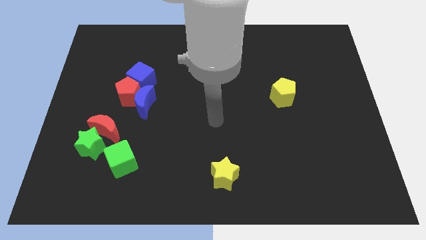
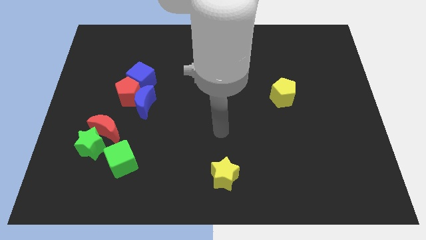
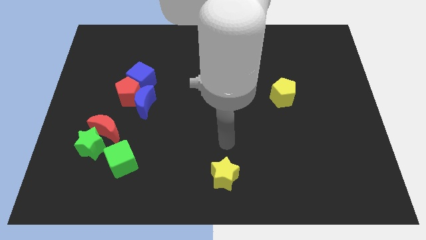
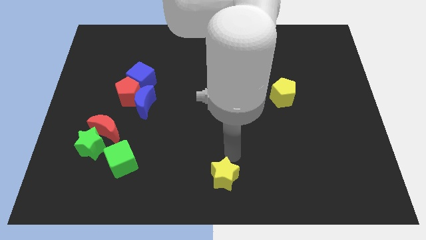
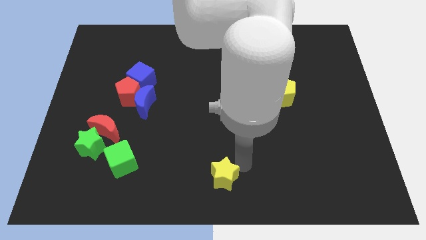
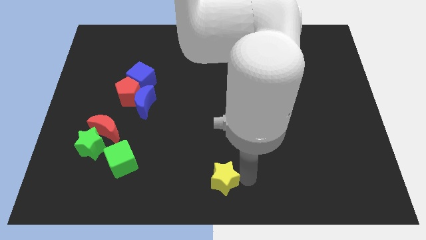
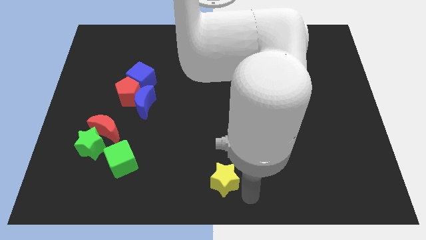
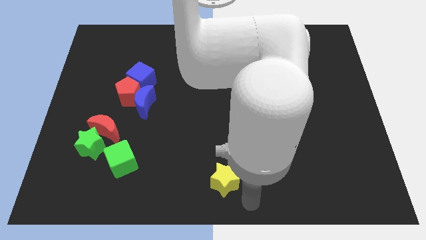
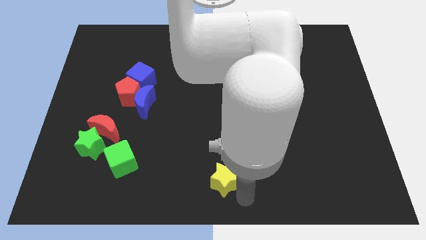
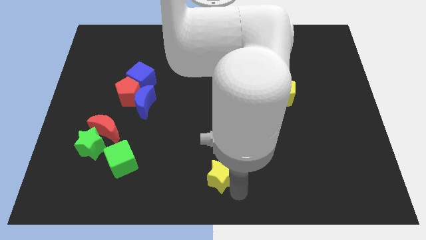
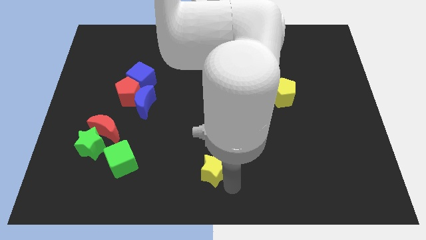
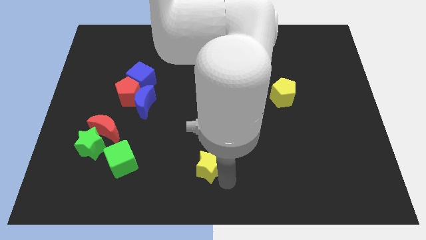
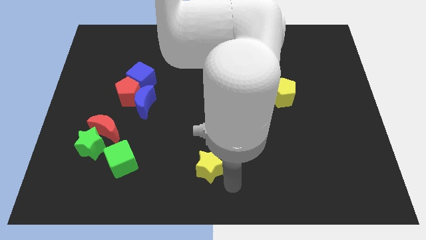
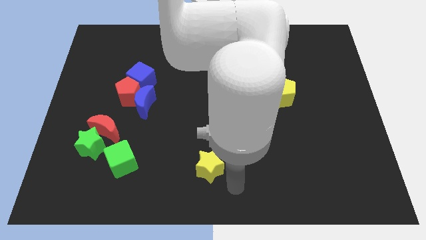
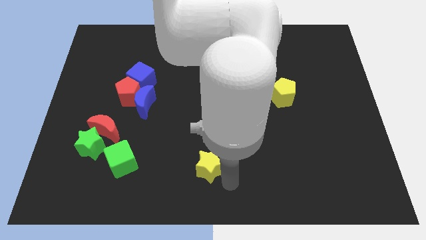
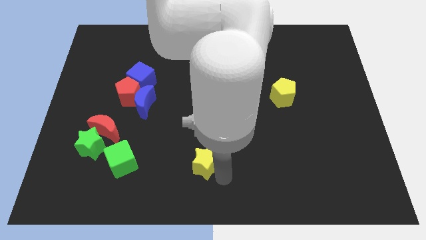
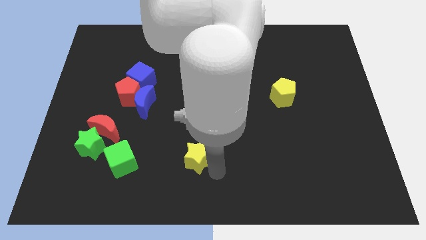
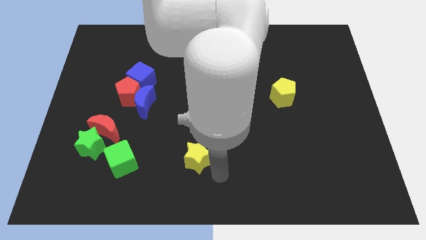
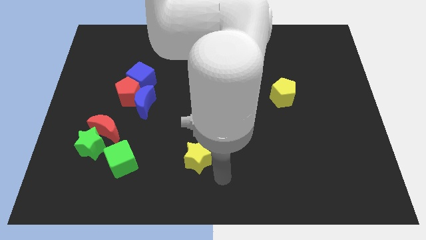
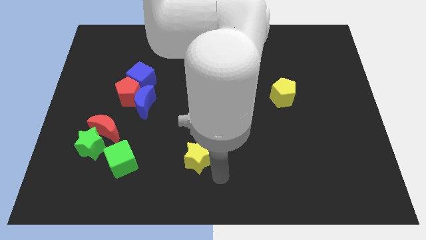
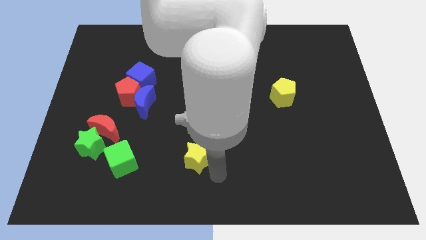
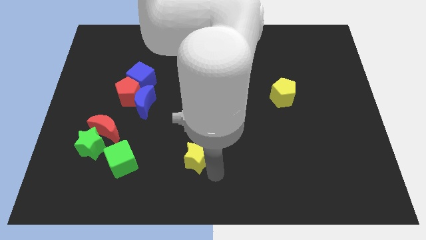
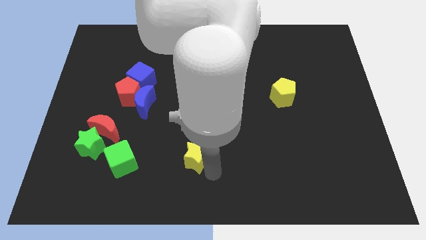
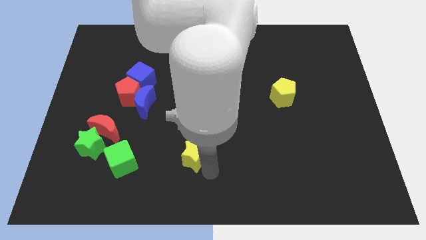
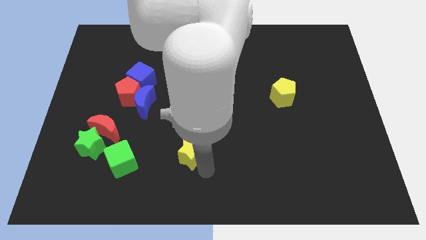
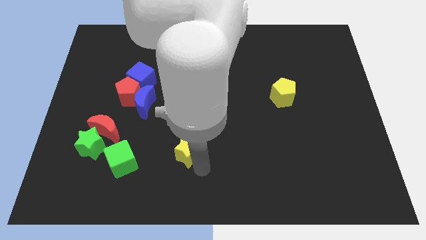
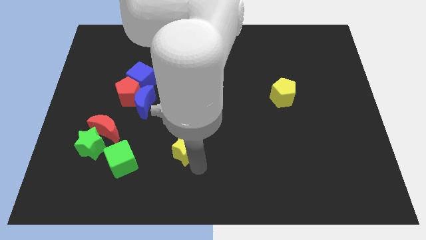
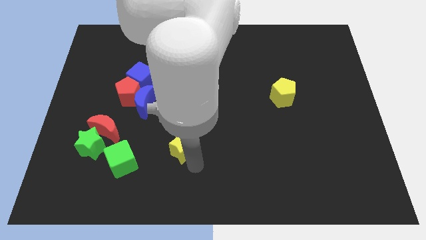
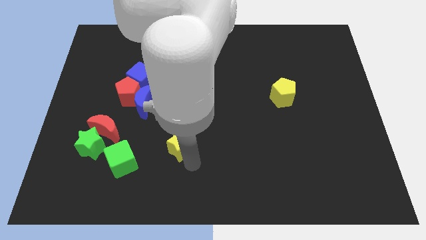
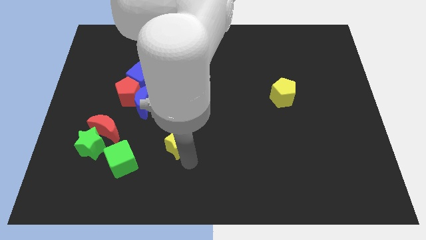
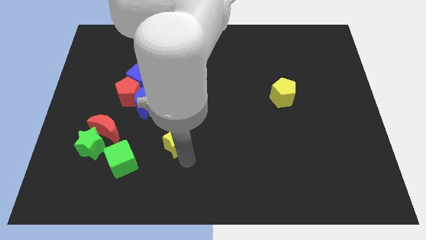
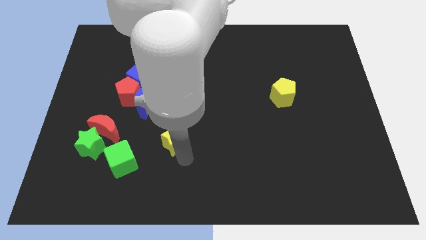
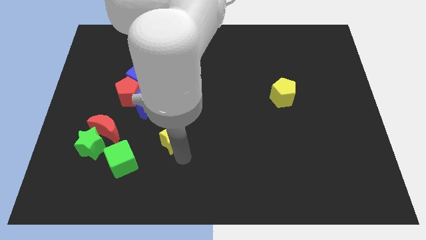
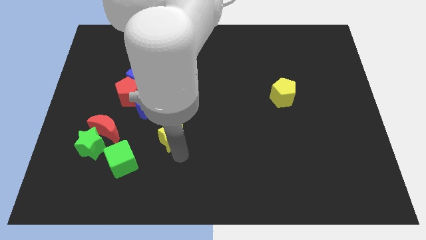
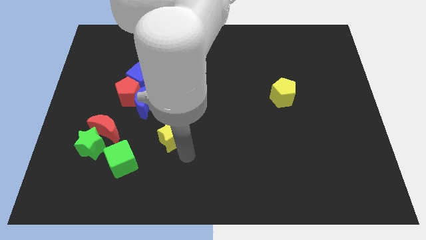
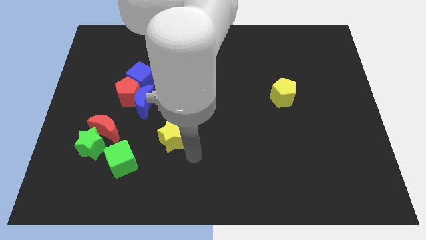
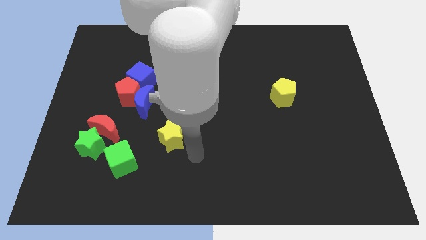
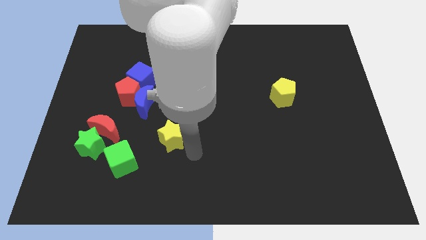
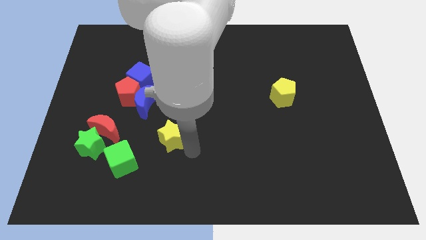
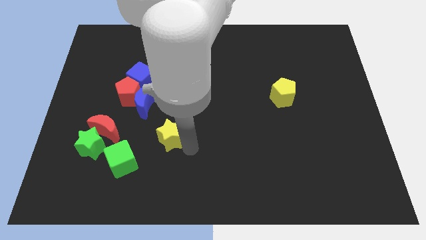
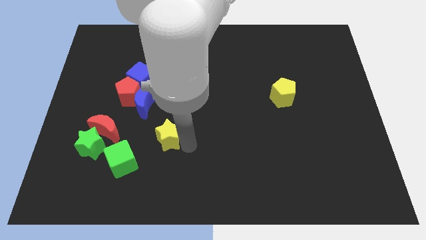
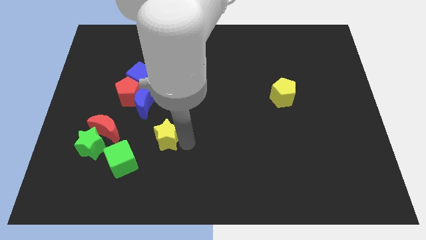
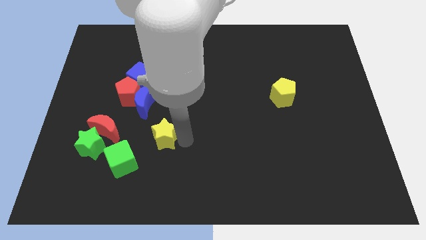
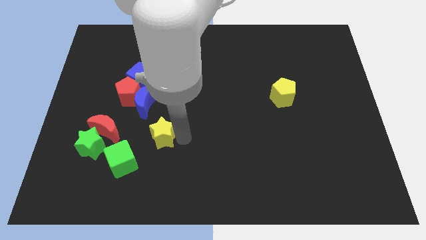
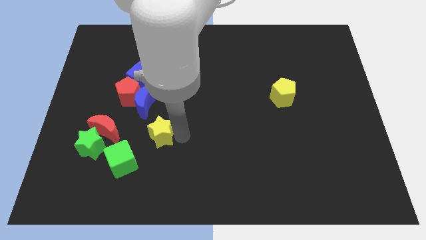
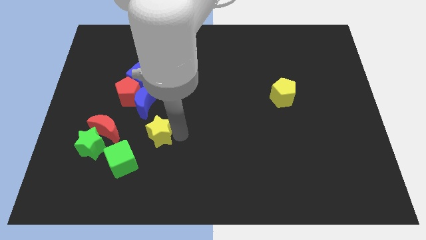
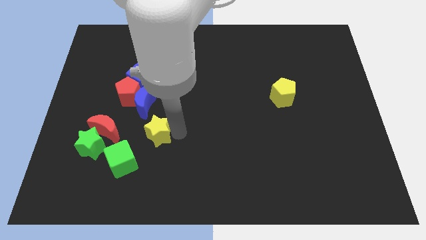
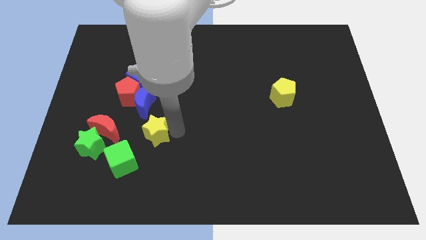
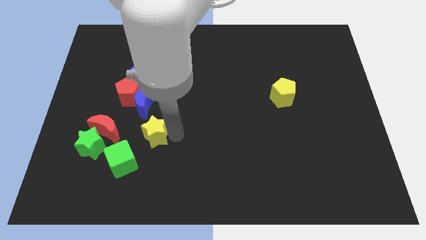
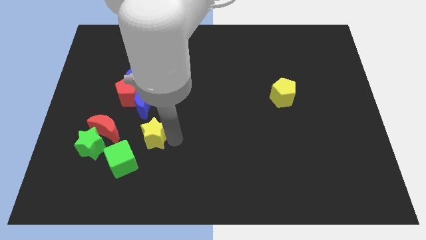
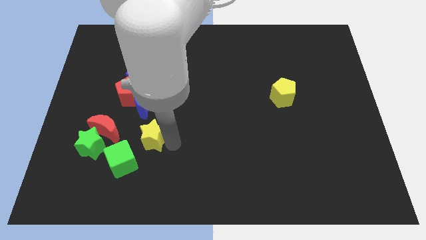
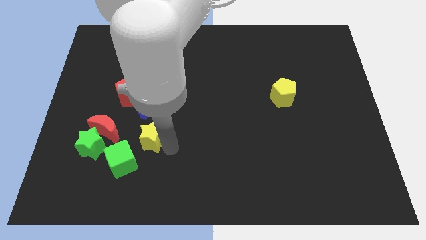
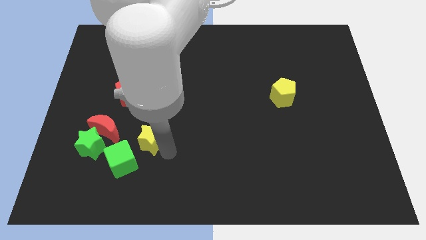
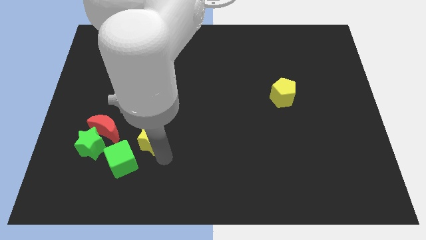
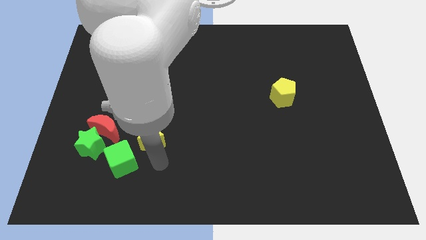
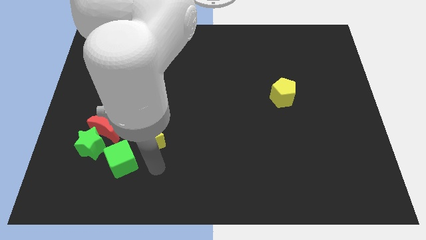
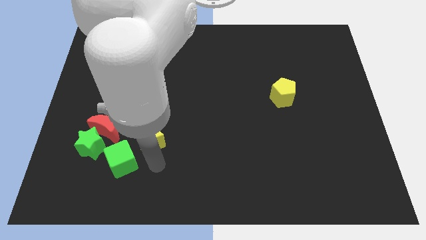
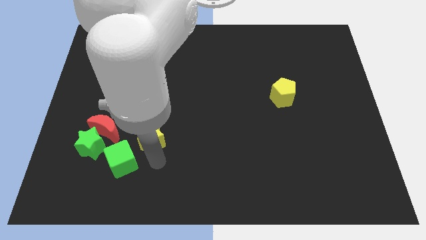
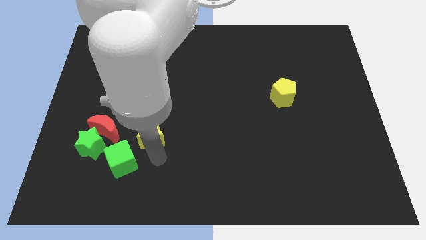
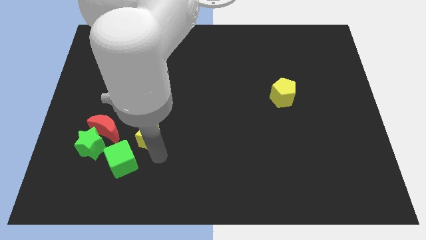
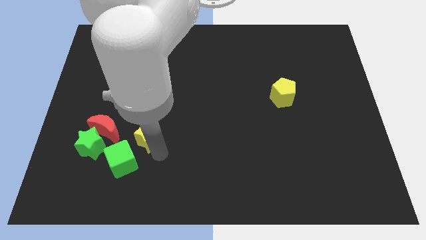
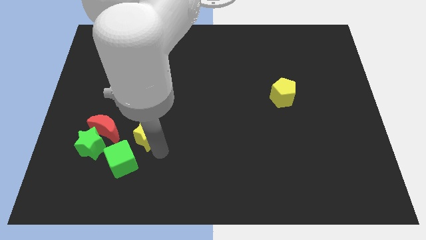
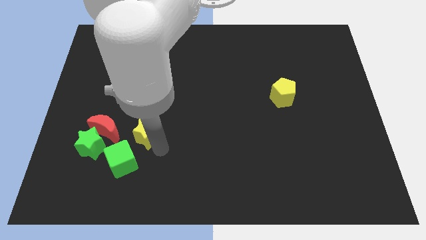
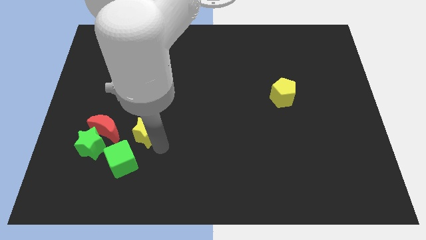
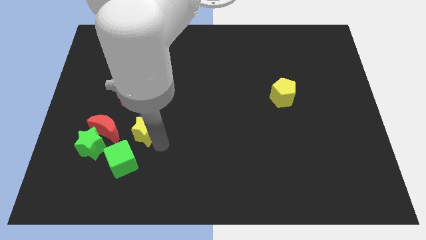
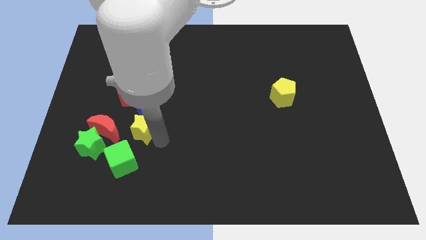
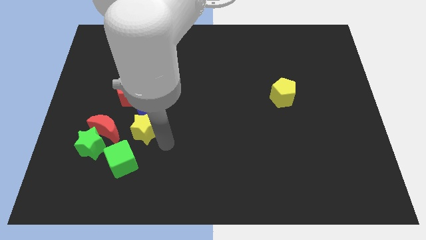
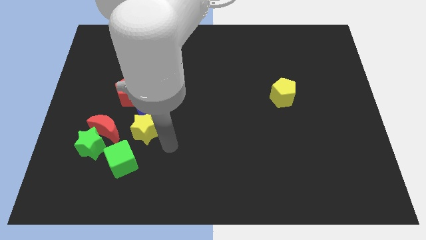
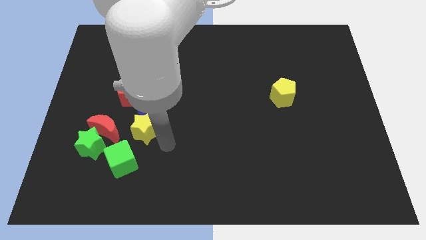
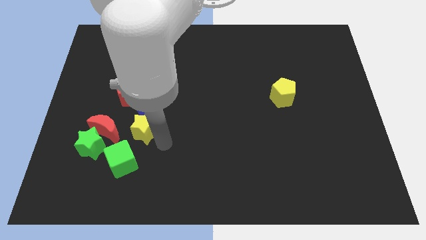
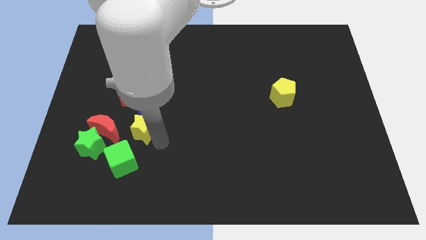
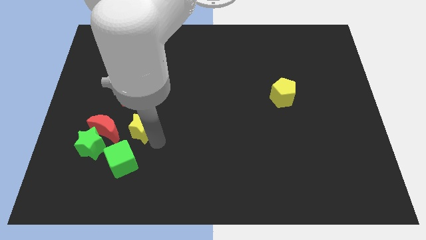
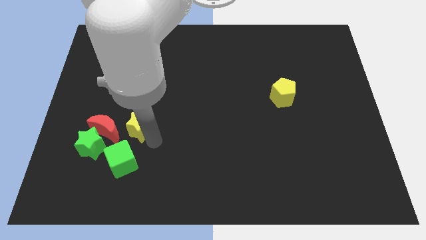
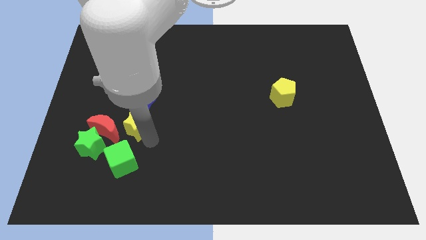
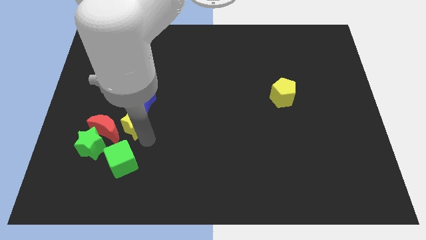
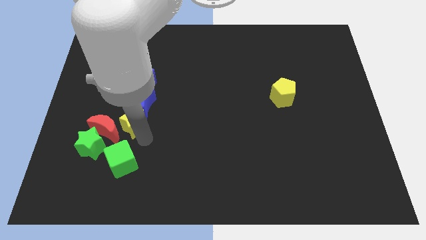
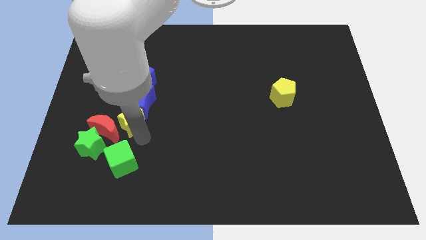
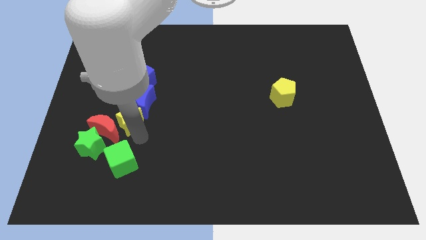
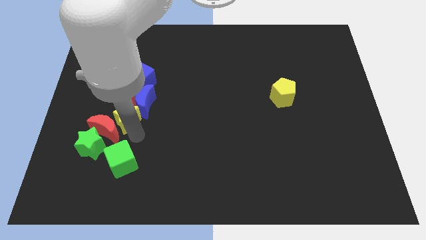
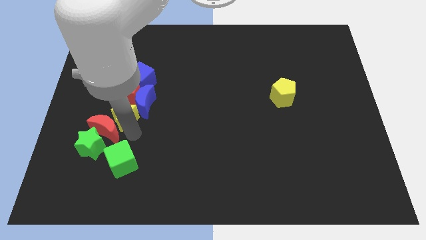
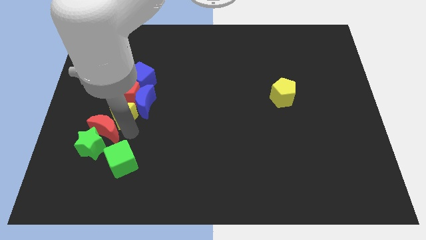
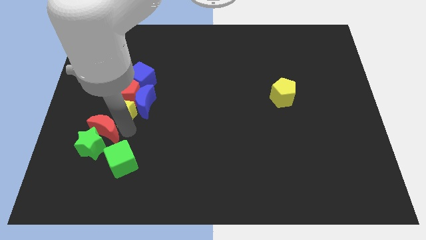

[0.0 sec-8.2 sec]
move the yellow star close to the red pentagon
